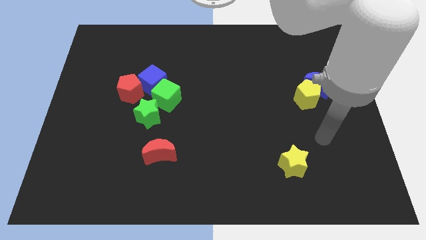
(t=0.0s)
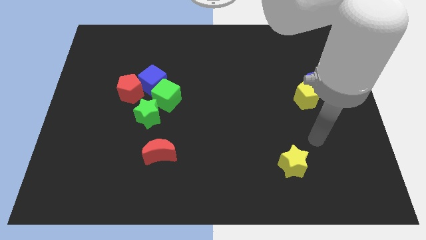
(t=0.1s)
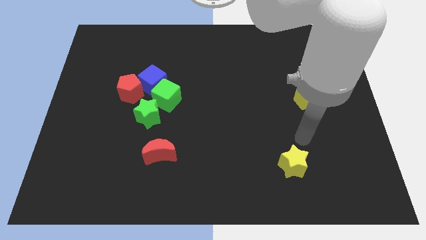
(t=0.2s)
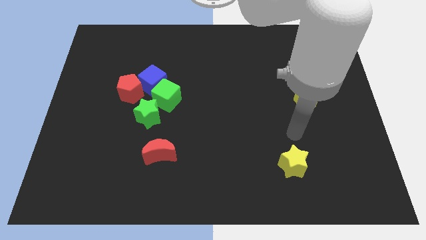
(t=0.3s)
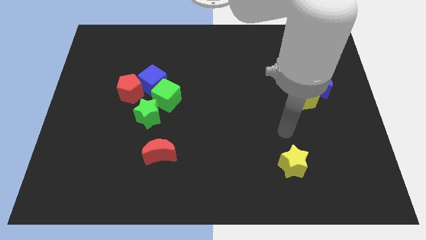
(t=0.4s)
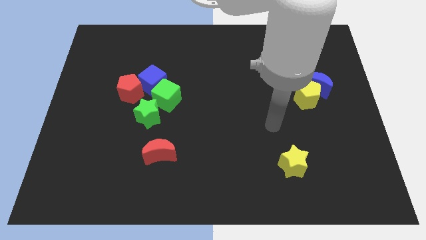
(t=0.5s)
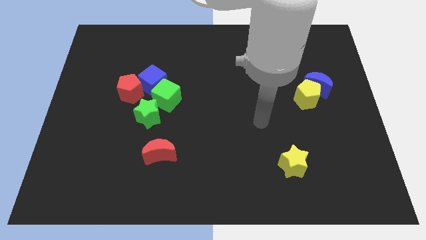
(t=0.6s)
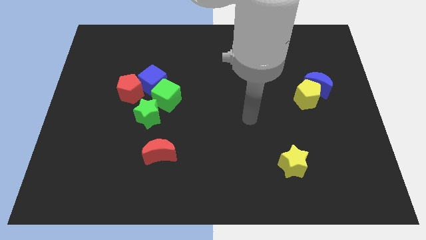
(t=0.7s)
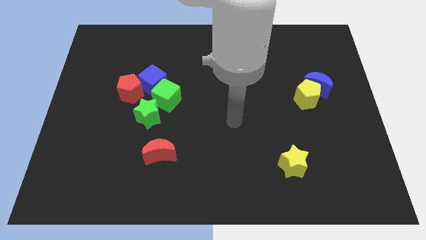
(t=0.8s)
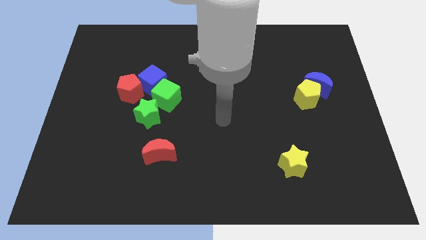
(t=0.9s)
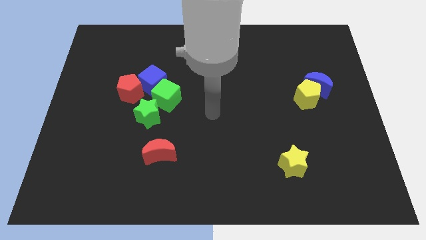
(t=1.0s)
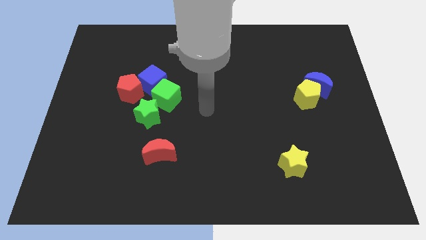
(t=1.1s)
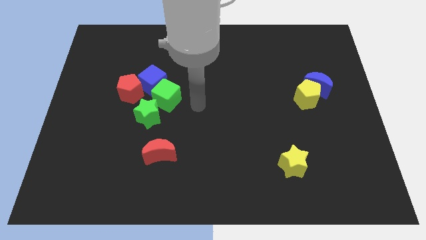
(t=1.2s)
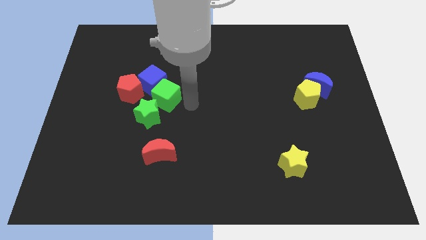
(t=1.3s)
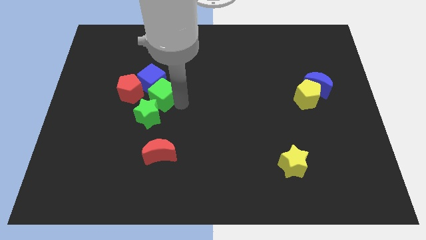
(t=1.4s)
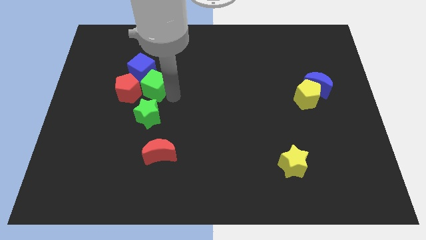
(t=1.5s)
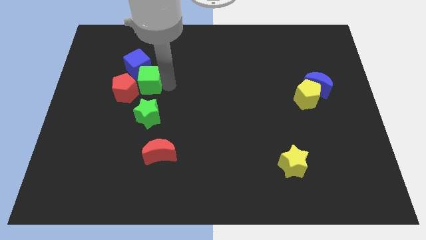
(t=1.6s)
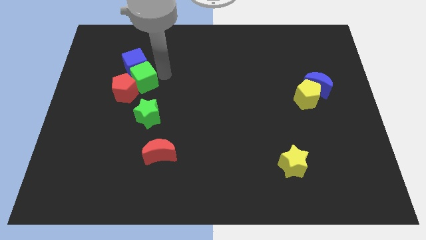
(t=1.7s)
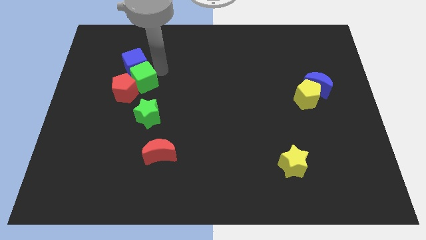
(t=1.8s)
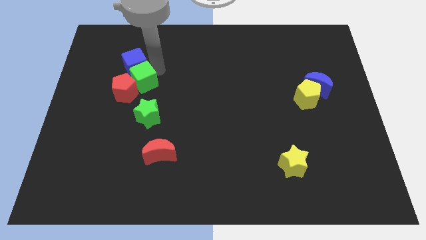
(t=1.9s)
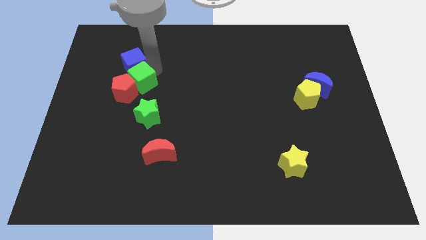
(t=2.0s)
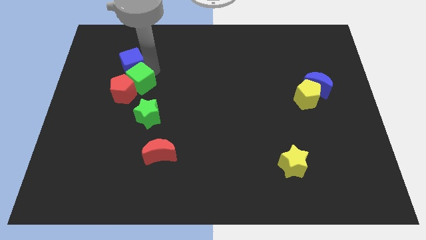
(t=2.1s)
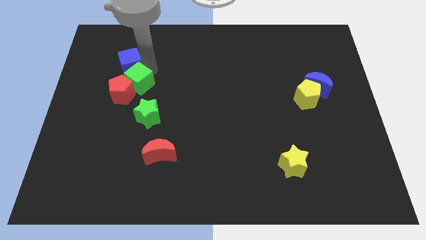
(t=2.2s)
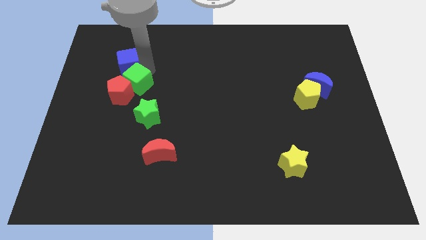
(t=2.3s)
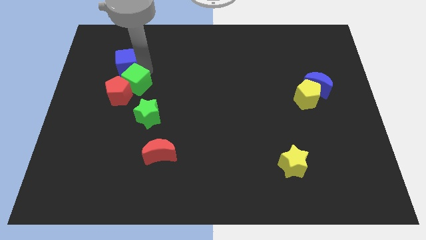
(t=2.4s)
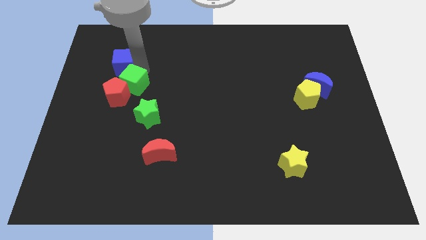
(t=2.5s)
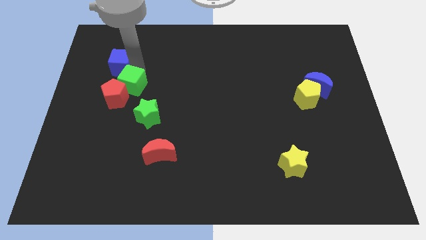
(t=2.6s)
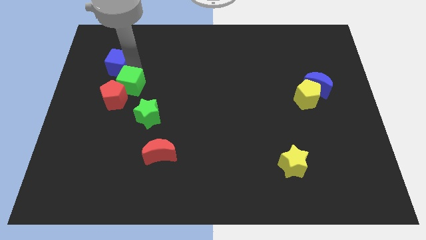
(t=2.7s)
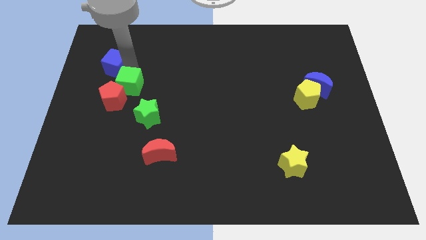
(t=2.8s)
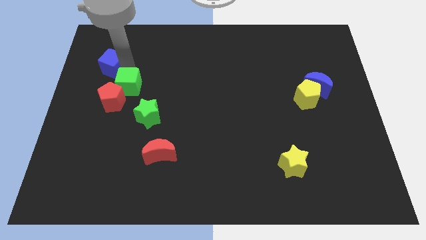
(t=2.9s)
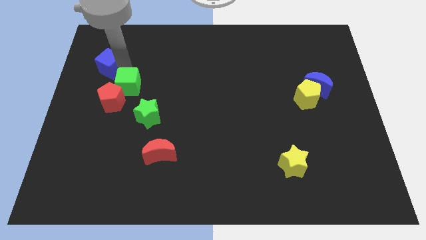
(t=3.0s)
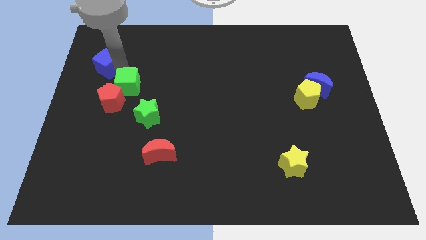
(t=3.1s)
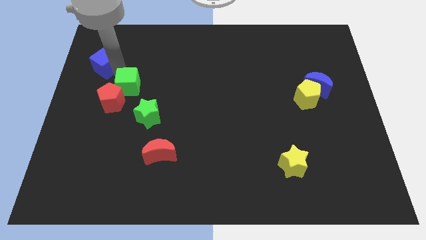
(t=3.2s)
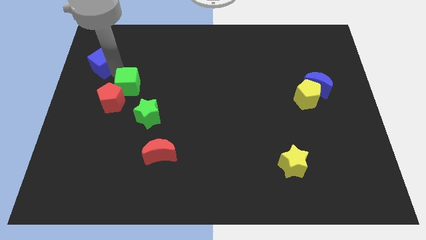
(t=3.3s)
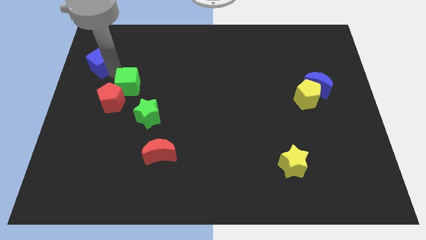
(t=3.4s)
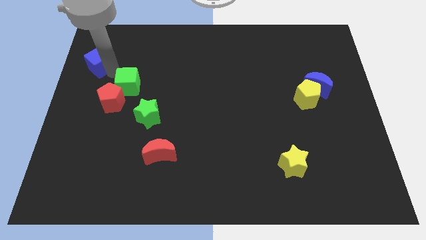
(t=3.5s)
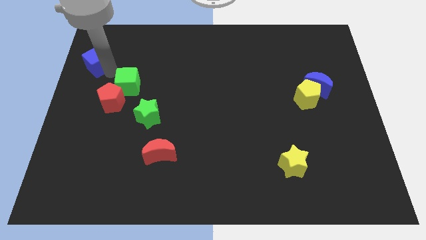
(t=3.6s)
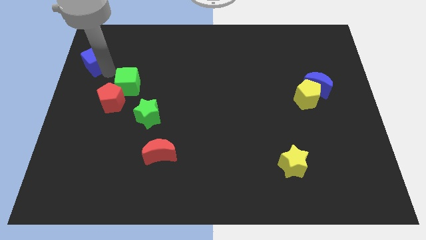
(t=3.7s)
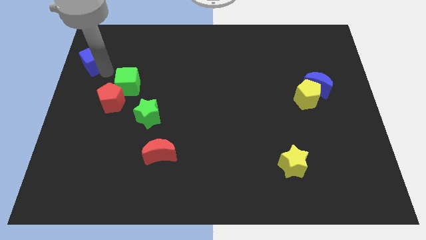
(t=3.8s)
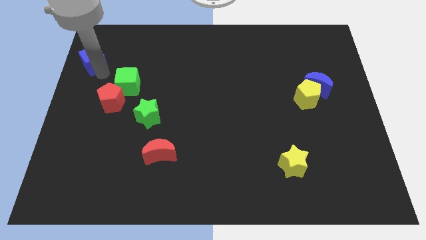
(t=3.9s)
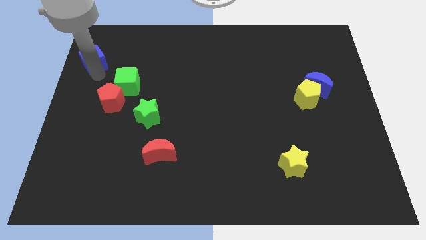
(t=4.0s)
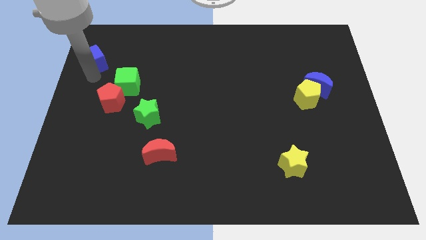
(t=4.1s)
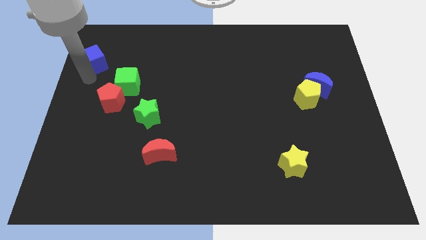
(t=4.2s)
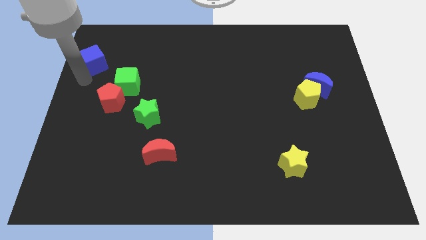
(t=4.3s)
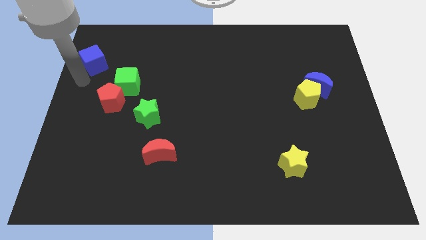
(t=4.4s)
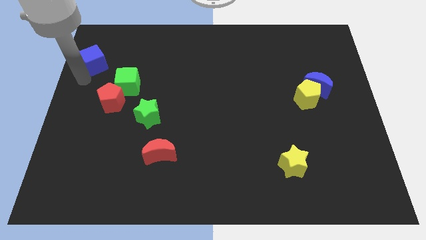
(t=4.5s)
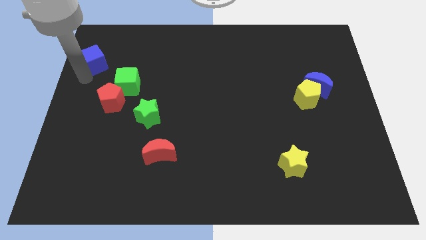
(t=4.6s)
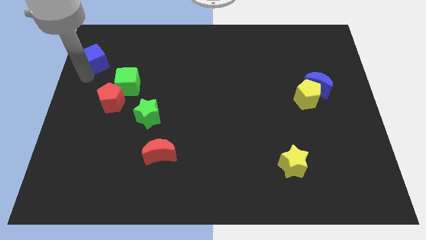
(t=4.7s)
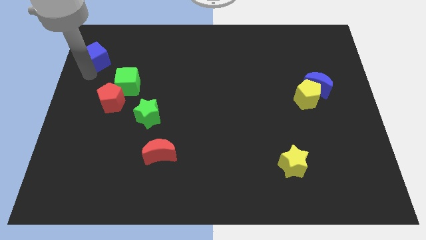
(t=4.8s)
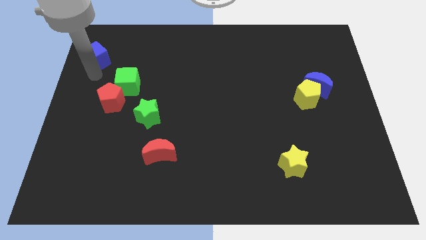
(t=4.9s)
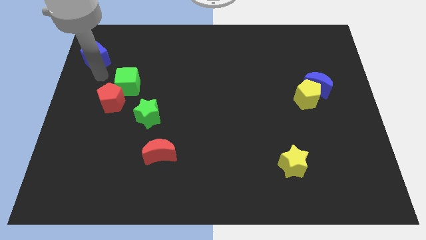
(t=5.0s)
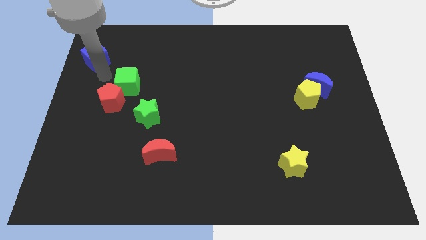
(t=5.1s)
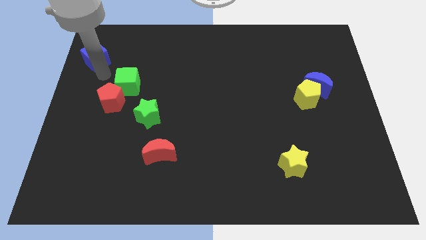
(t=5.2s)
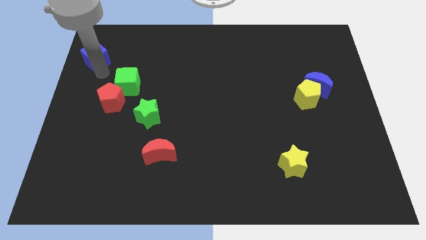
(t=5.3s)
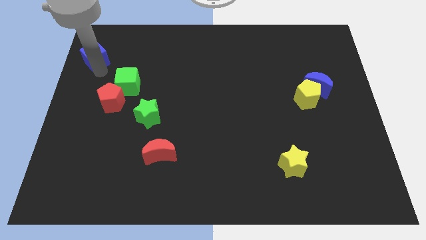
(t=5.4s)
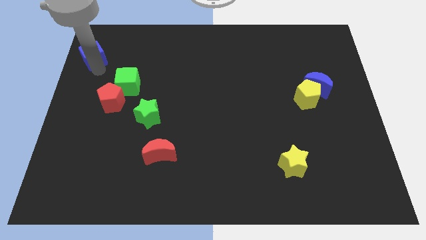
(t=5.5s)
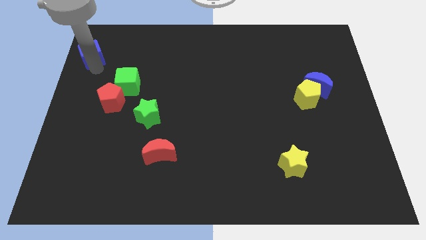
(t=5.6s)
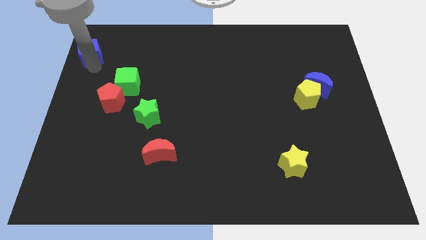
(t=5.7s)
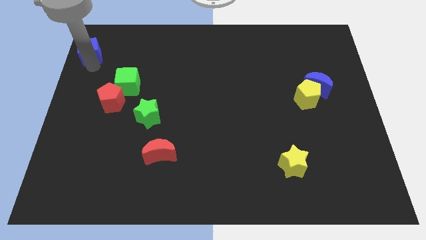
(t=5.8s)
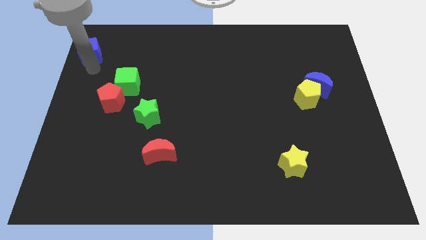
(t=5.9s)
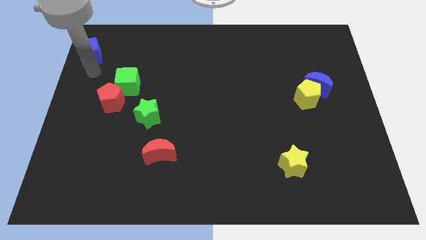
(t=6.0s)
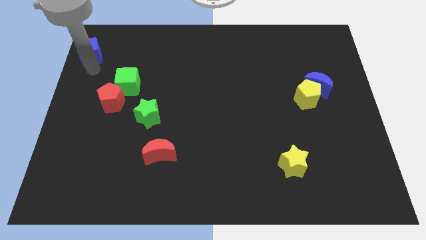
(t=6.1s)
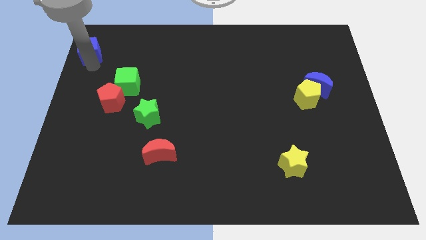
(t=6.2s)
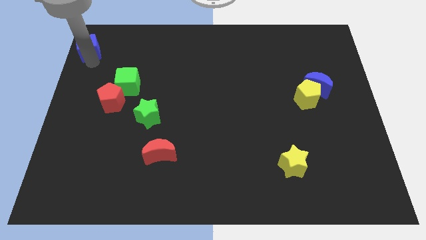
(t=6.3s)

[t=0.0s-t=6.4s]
push the blue cube to the top left corner
